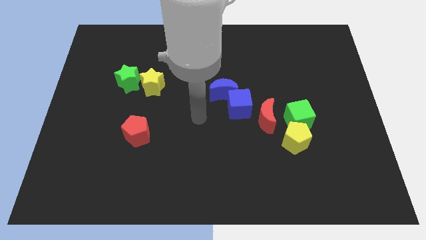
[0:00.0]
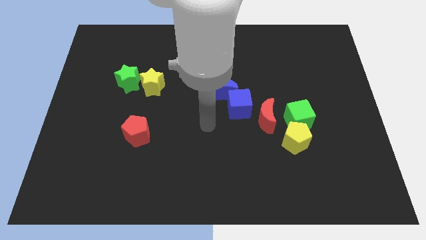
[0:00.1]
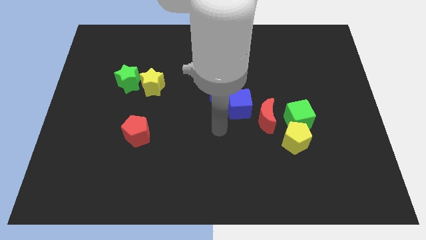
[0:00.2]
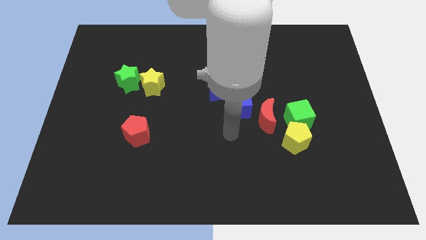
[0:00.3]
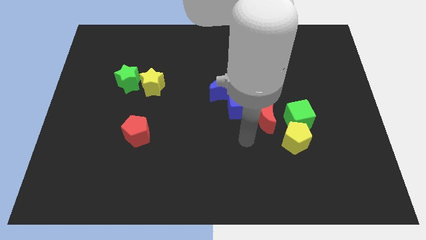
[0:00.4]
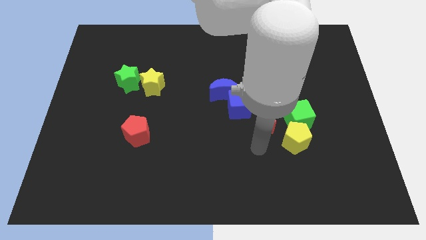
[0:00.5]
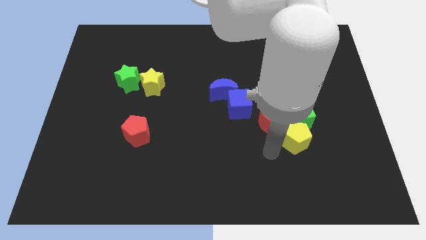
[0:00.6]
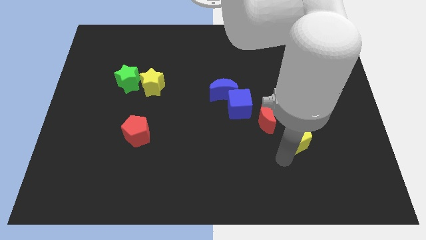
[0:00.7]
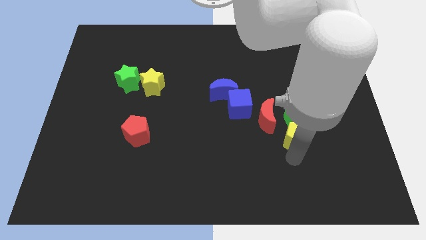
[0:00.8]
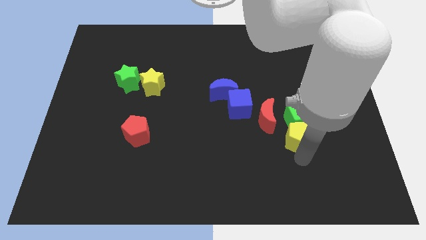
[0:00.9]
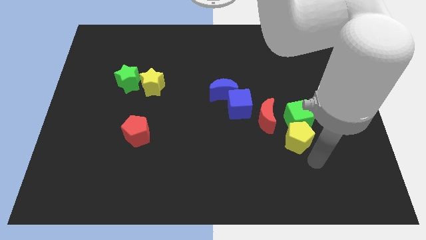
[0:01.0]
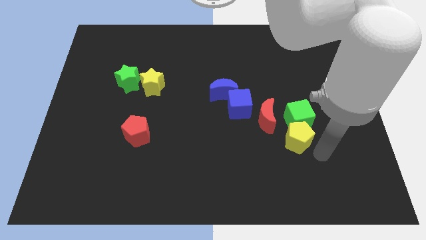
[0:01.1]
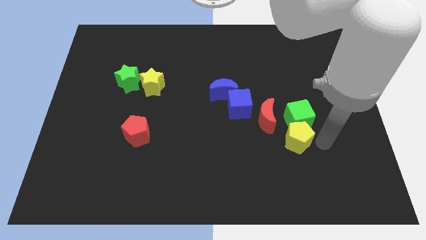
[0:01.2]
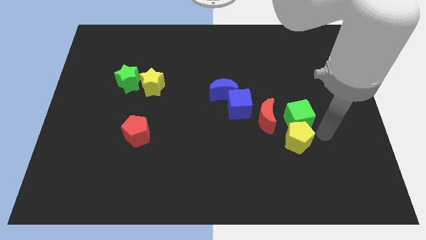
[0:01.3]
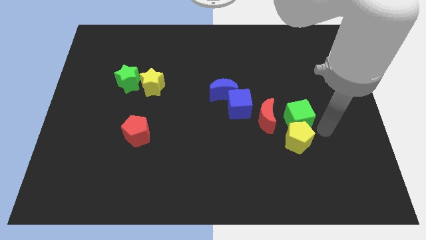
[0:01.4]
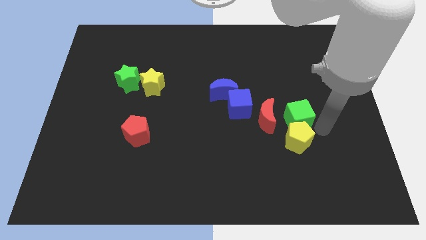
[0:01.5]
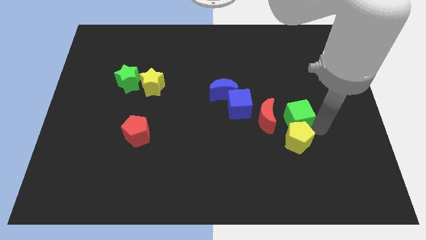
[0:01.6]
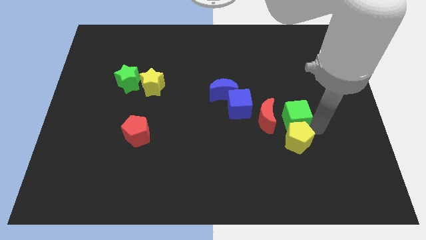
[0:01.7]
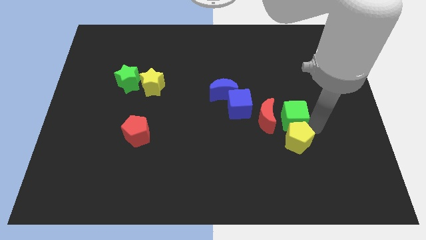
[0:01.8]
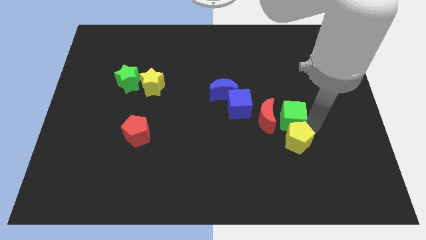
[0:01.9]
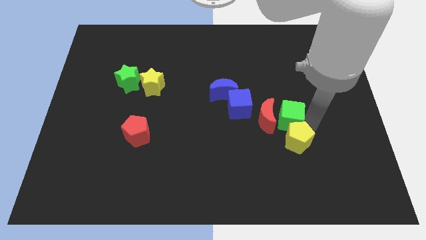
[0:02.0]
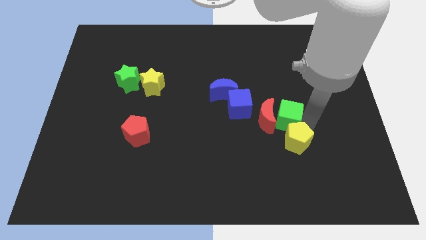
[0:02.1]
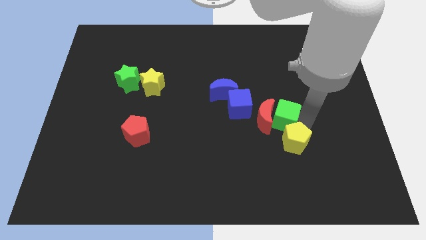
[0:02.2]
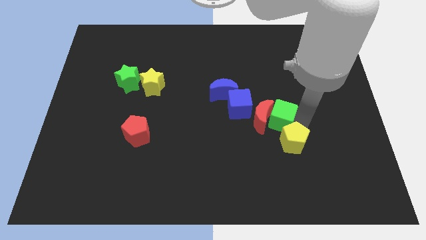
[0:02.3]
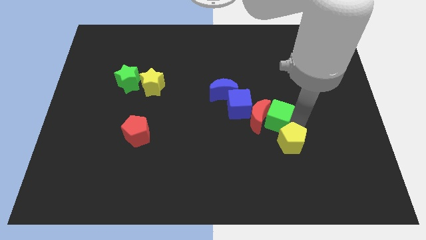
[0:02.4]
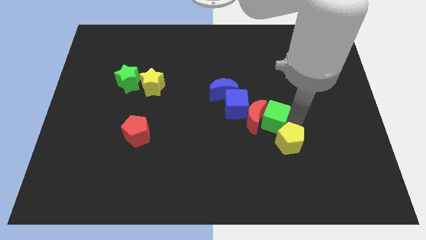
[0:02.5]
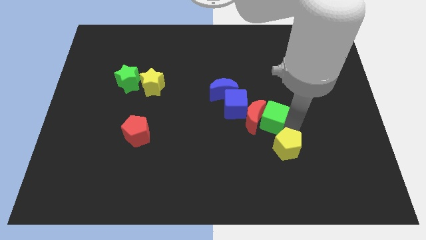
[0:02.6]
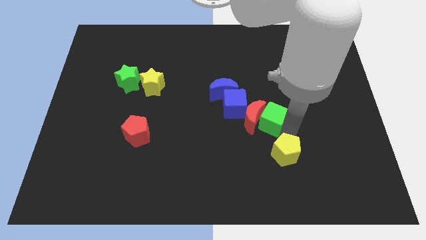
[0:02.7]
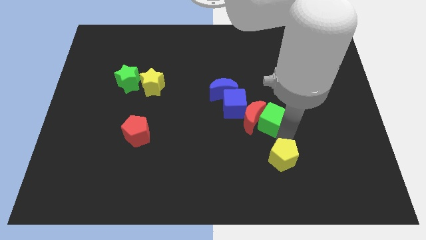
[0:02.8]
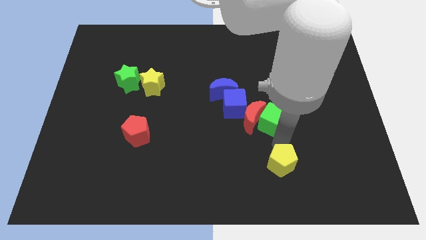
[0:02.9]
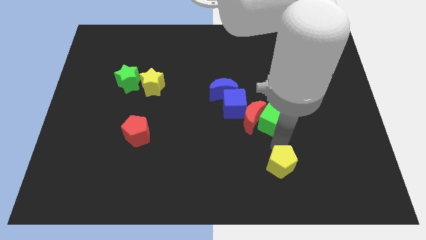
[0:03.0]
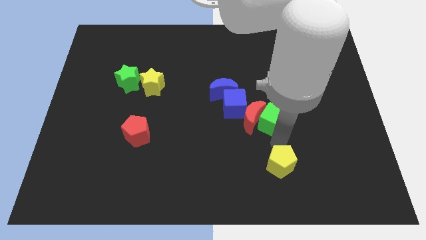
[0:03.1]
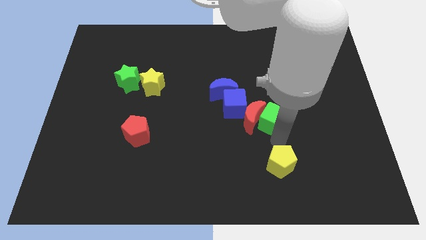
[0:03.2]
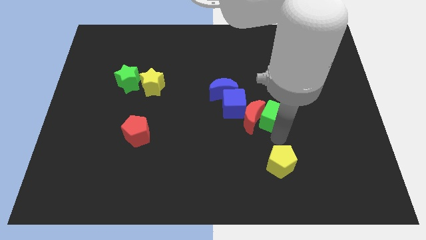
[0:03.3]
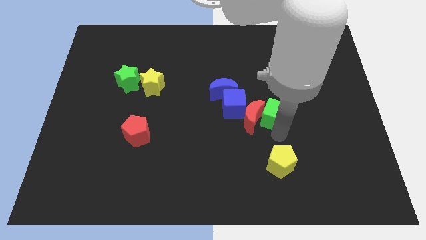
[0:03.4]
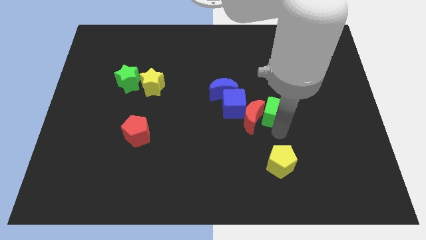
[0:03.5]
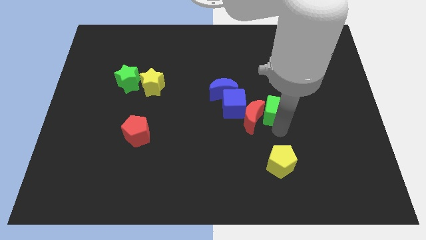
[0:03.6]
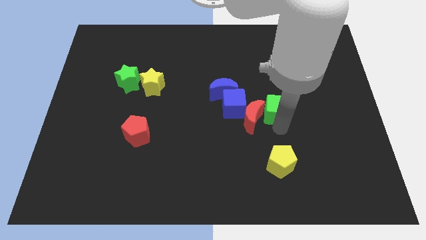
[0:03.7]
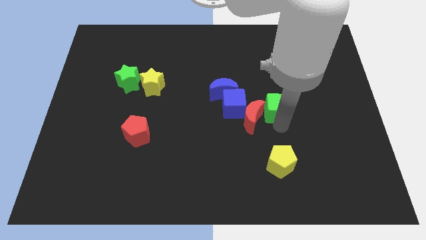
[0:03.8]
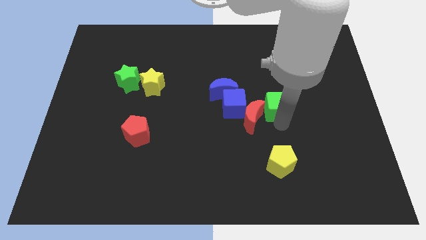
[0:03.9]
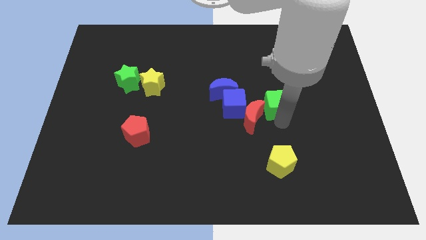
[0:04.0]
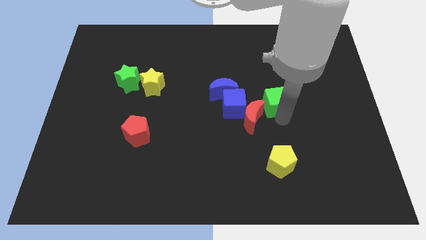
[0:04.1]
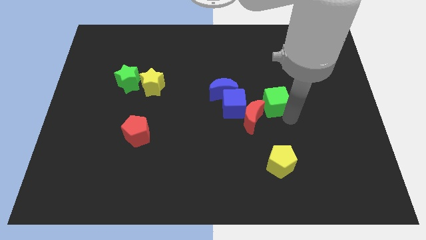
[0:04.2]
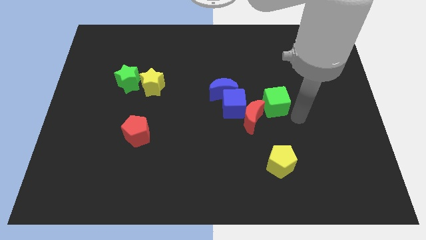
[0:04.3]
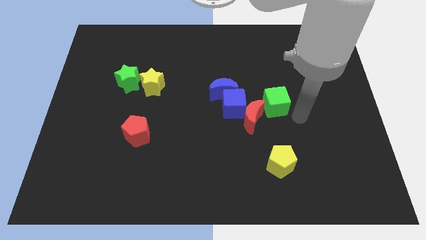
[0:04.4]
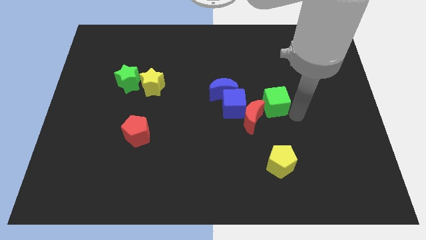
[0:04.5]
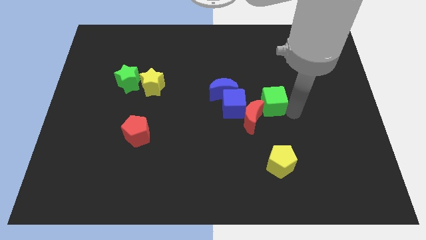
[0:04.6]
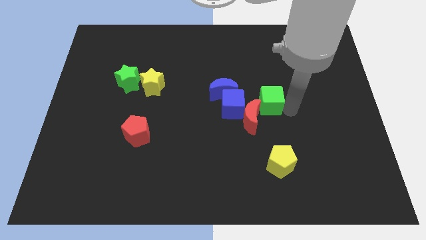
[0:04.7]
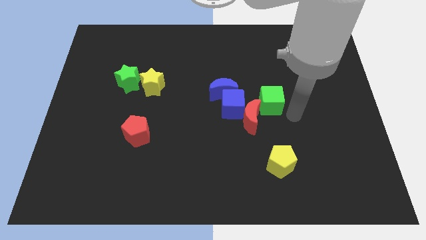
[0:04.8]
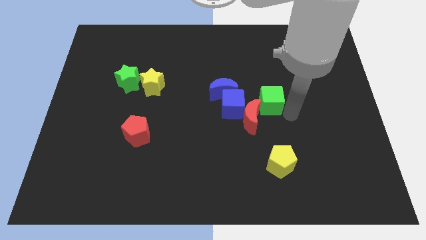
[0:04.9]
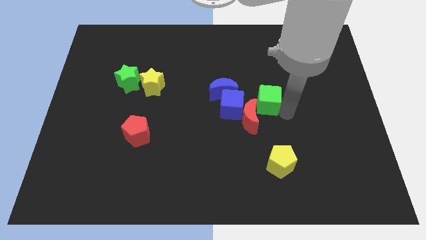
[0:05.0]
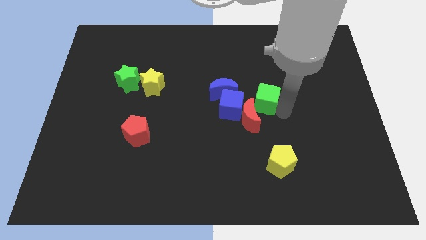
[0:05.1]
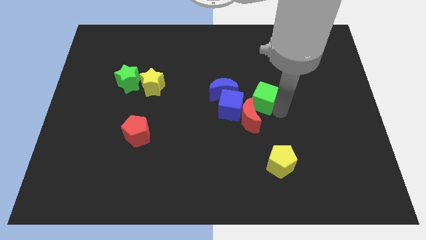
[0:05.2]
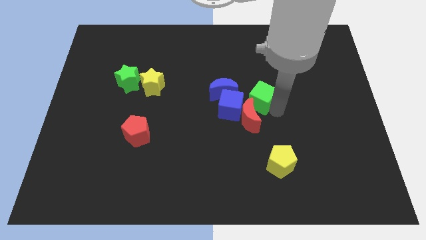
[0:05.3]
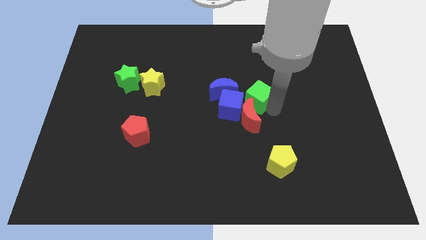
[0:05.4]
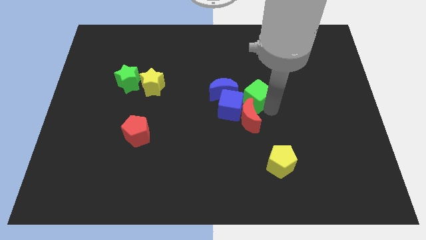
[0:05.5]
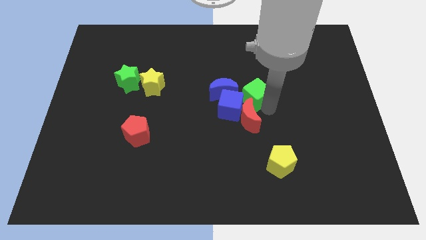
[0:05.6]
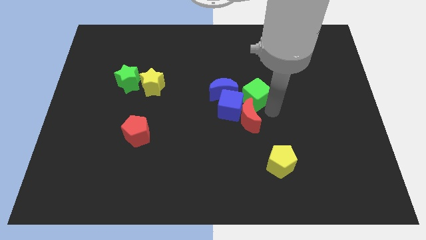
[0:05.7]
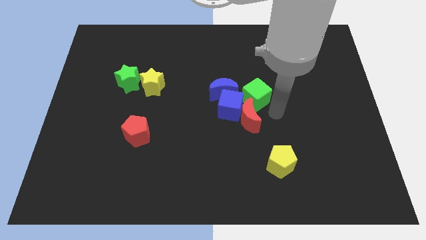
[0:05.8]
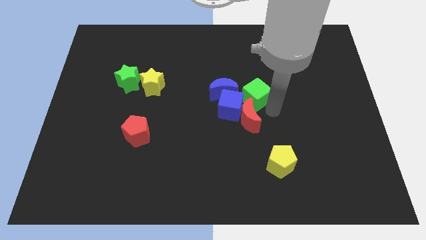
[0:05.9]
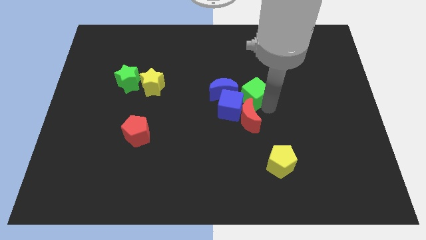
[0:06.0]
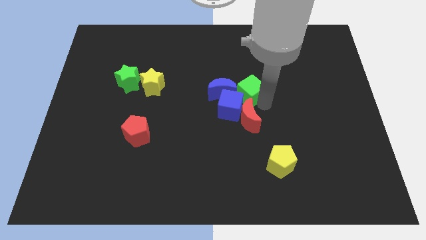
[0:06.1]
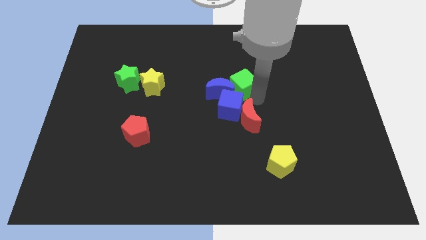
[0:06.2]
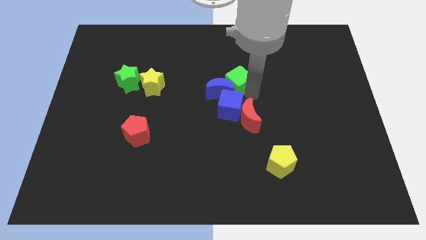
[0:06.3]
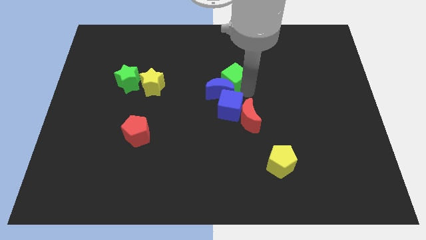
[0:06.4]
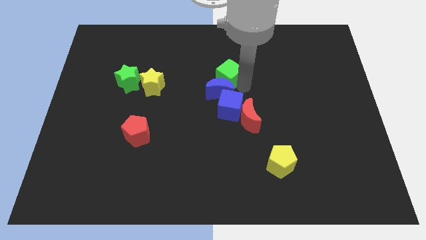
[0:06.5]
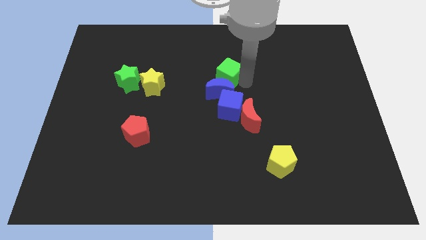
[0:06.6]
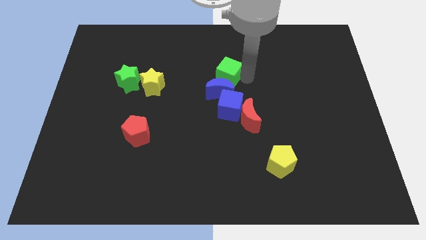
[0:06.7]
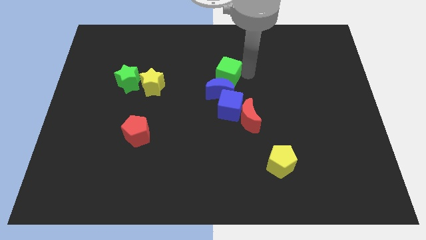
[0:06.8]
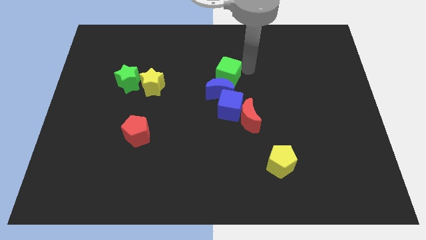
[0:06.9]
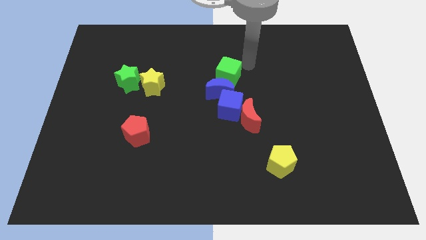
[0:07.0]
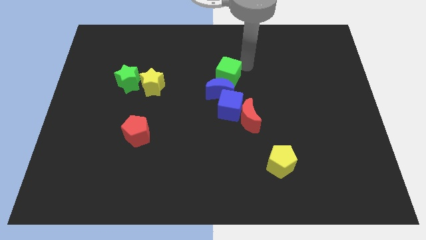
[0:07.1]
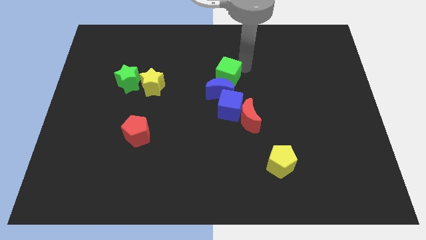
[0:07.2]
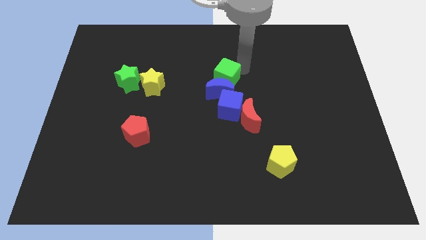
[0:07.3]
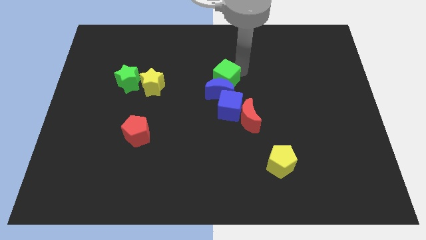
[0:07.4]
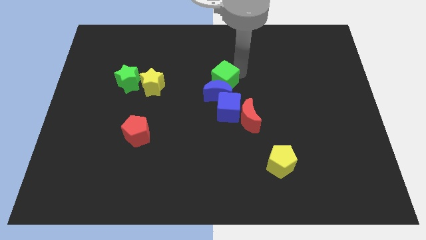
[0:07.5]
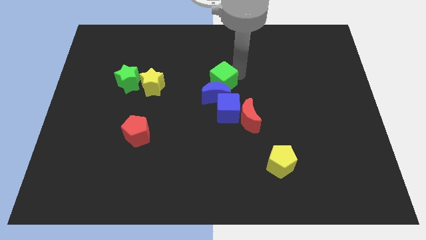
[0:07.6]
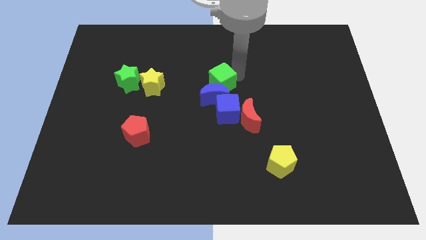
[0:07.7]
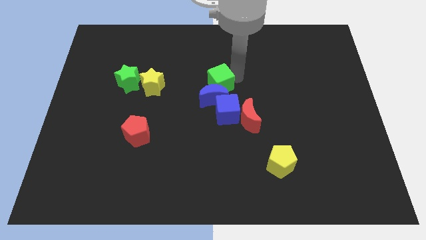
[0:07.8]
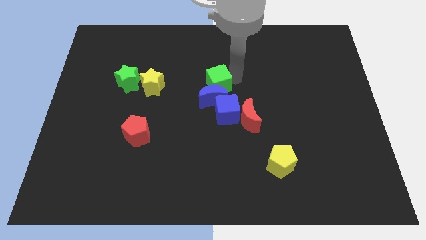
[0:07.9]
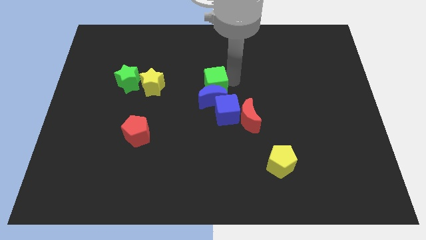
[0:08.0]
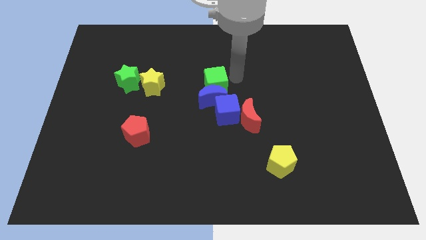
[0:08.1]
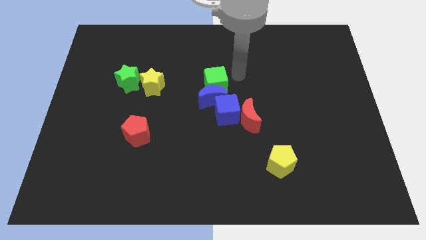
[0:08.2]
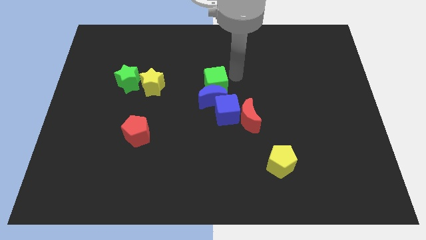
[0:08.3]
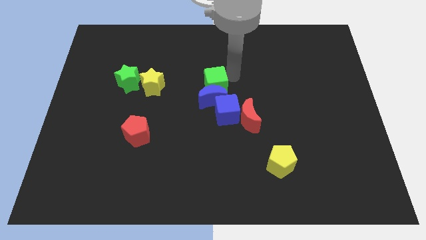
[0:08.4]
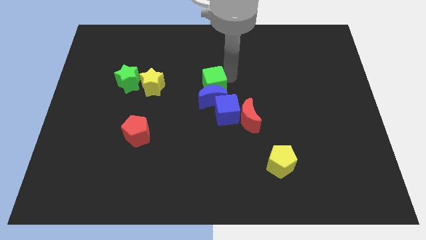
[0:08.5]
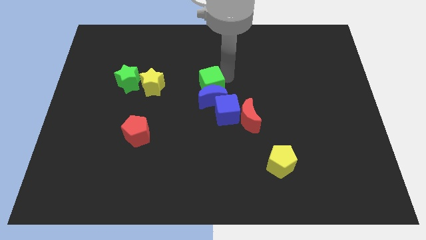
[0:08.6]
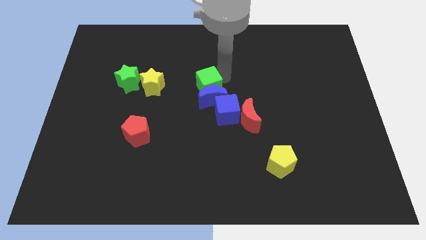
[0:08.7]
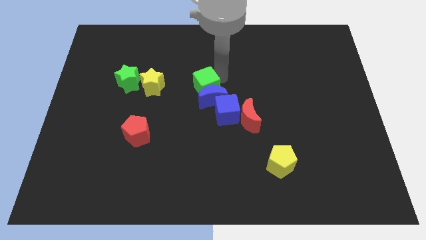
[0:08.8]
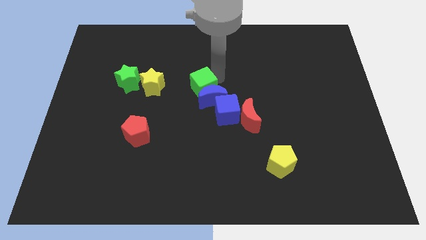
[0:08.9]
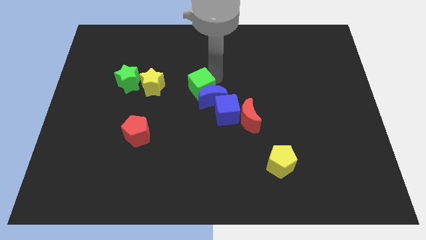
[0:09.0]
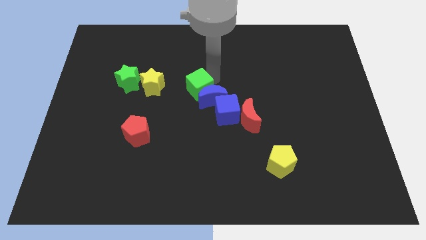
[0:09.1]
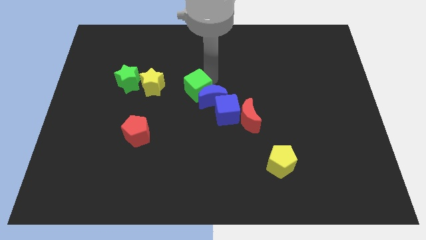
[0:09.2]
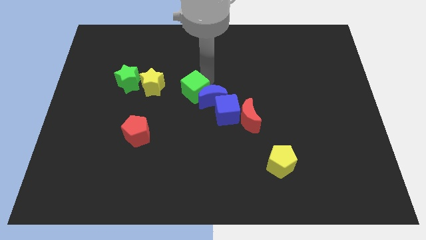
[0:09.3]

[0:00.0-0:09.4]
move the green cube to the left
